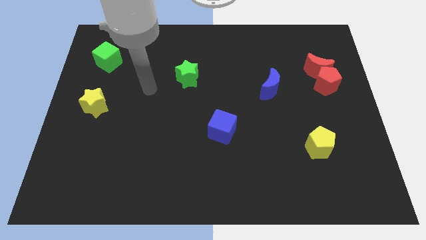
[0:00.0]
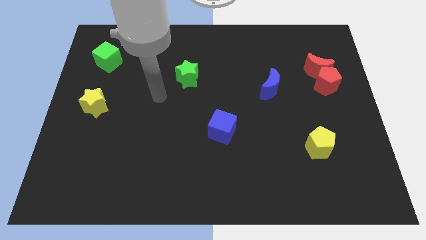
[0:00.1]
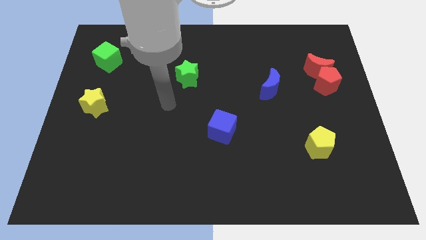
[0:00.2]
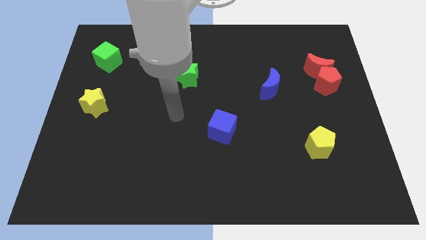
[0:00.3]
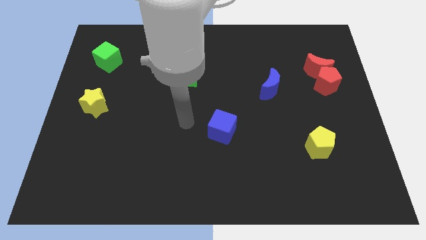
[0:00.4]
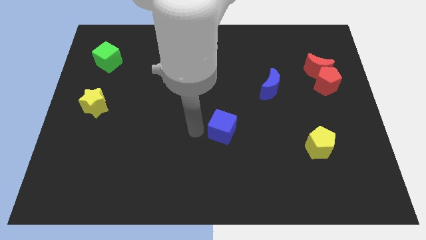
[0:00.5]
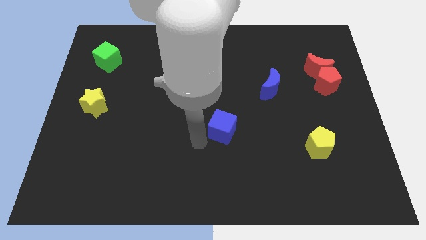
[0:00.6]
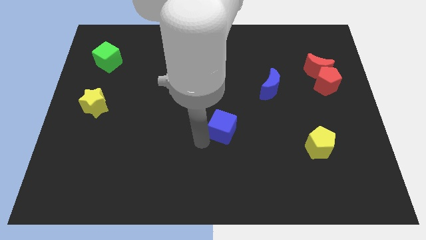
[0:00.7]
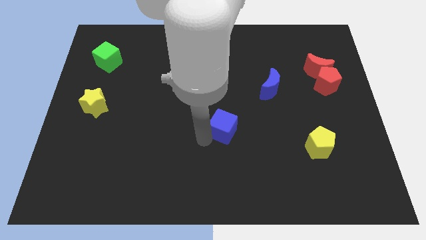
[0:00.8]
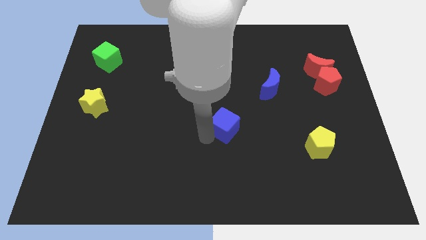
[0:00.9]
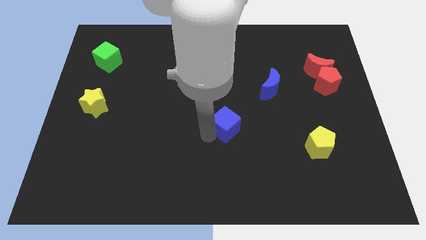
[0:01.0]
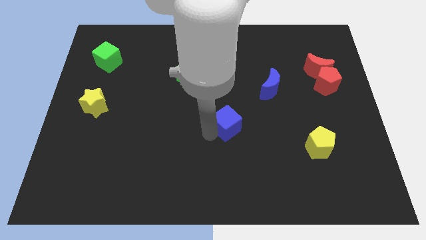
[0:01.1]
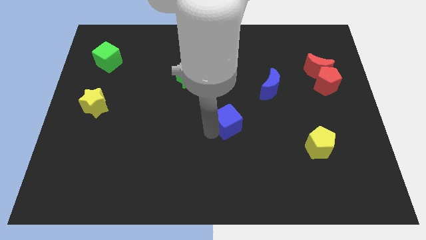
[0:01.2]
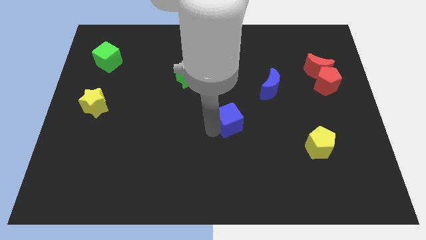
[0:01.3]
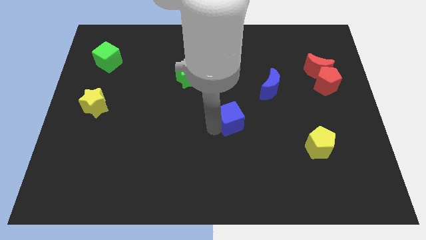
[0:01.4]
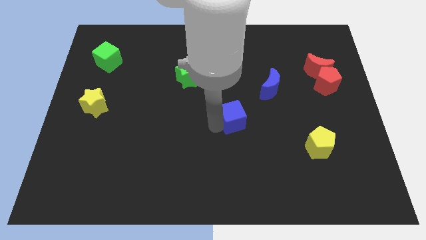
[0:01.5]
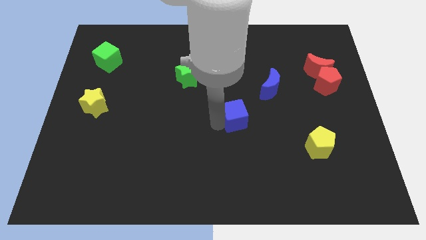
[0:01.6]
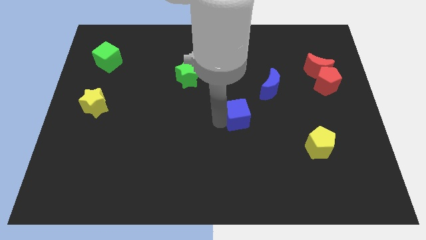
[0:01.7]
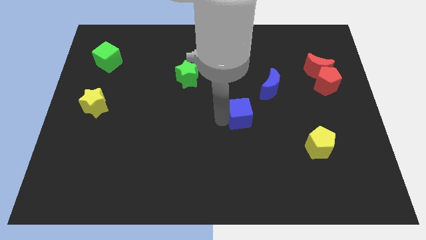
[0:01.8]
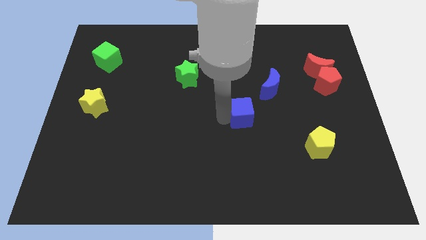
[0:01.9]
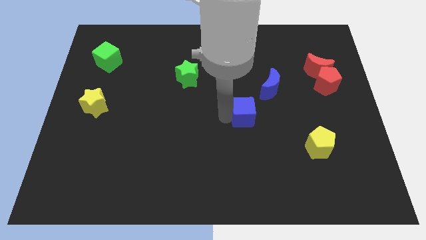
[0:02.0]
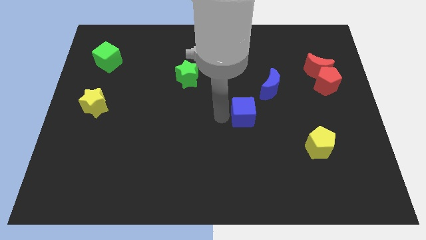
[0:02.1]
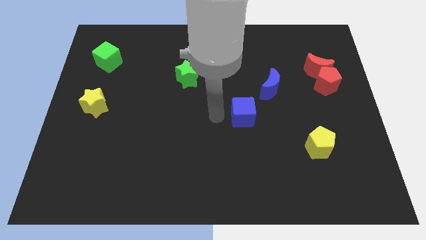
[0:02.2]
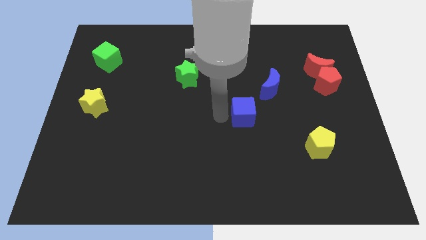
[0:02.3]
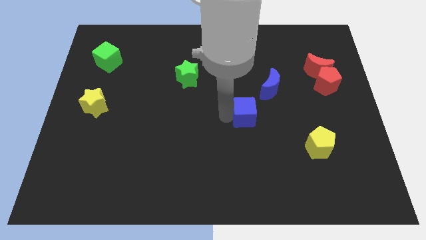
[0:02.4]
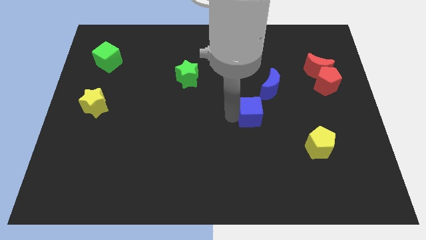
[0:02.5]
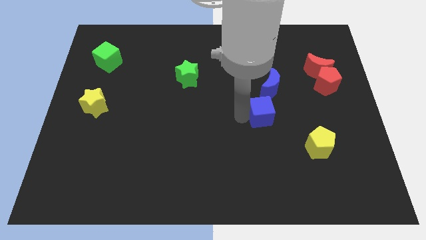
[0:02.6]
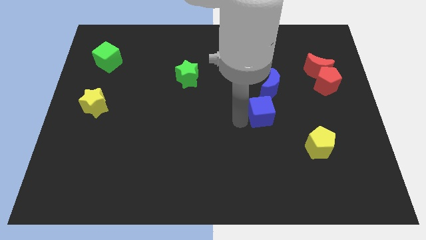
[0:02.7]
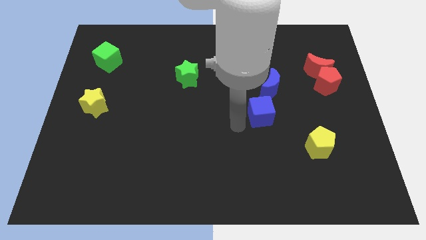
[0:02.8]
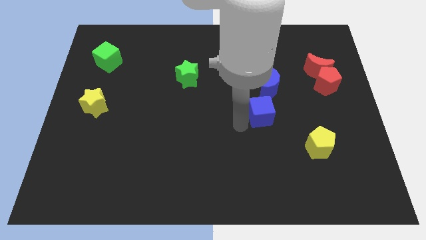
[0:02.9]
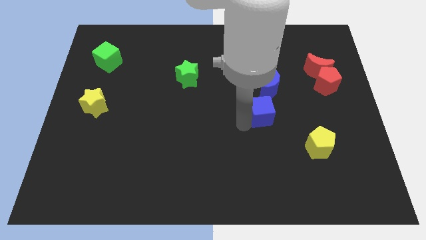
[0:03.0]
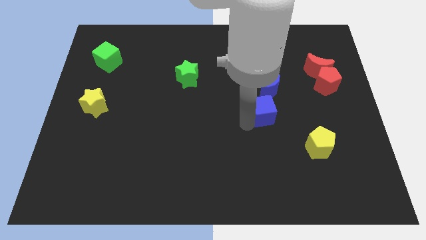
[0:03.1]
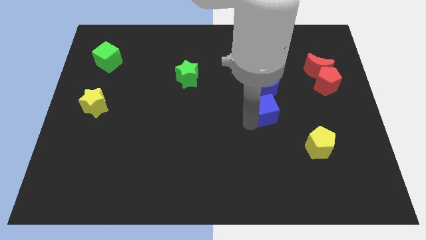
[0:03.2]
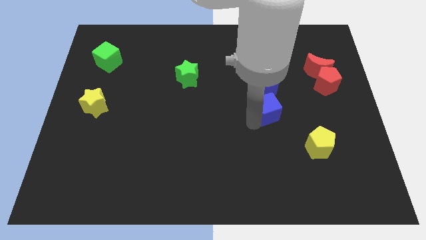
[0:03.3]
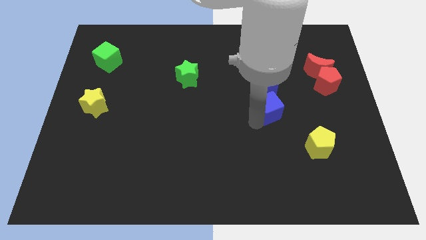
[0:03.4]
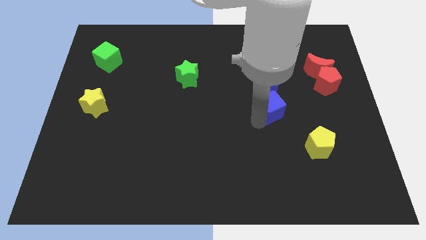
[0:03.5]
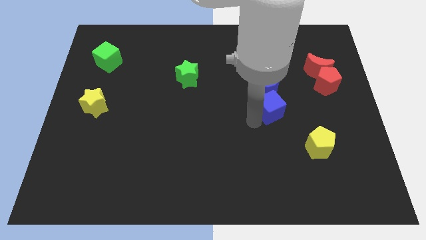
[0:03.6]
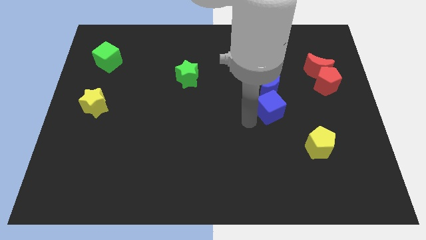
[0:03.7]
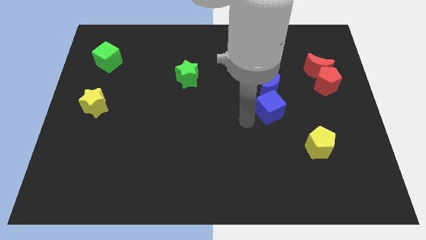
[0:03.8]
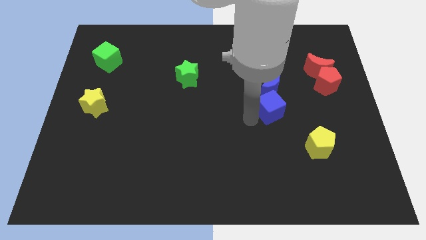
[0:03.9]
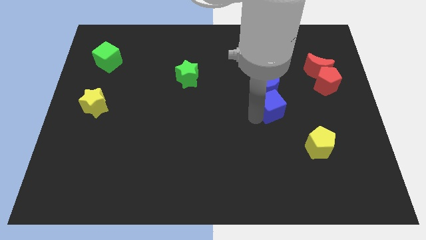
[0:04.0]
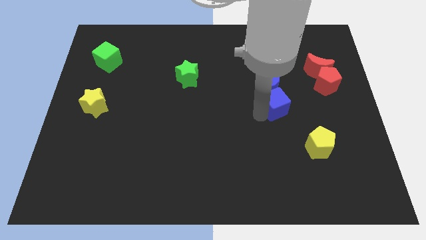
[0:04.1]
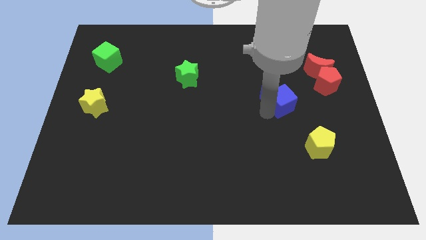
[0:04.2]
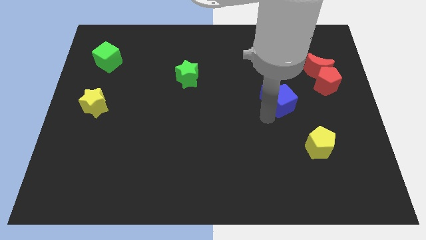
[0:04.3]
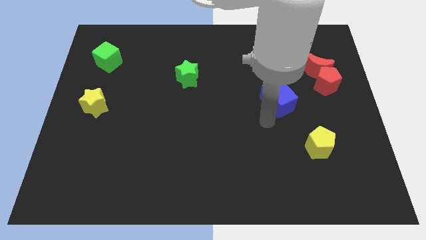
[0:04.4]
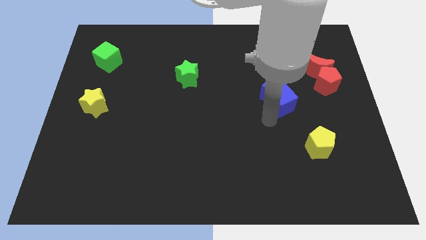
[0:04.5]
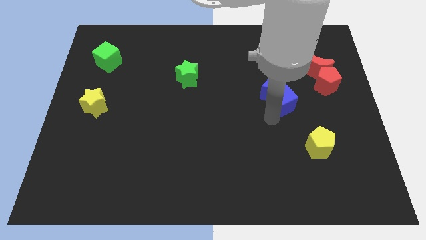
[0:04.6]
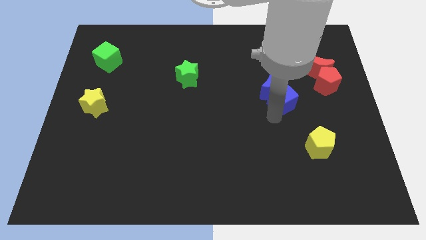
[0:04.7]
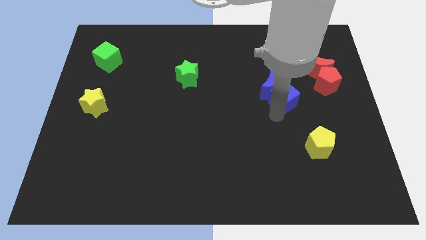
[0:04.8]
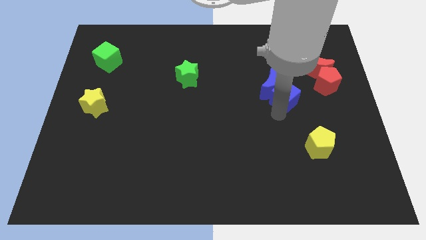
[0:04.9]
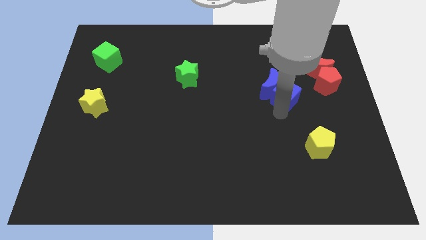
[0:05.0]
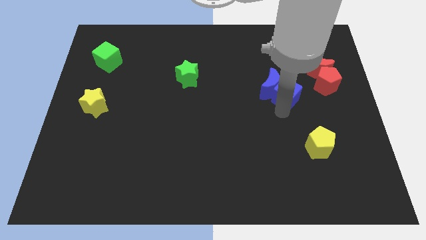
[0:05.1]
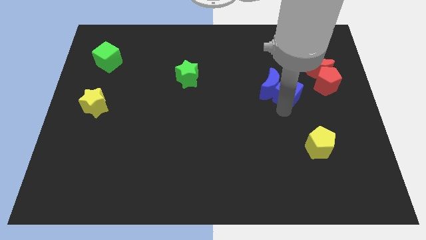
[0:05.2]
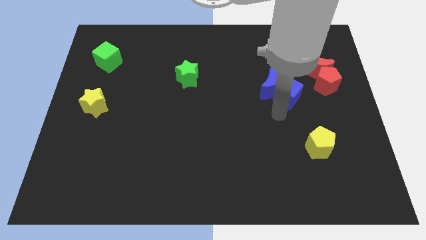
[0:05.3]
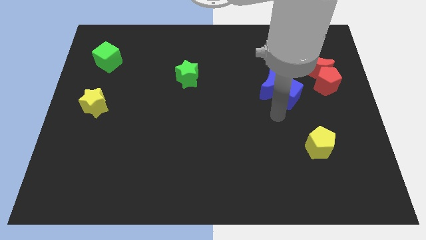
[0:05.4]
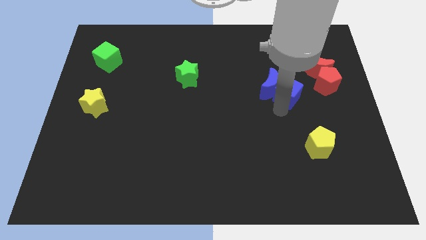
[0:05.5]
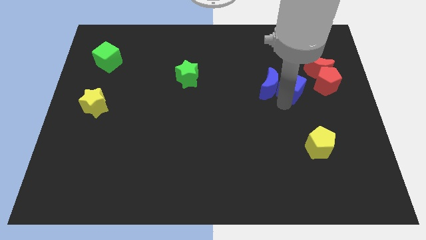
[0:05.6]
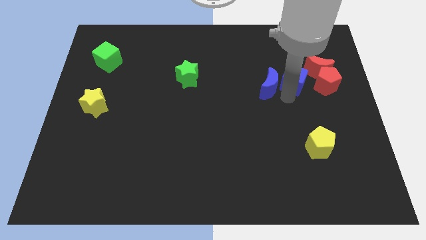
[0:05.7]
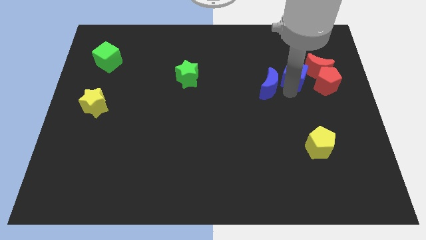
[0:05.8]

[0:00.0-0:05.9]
move the blue cube to the top left side of the red pentagon

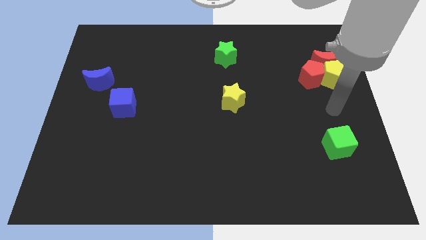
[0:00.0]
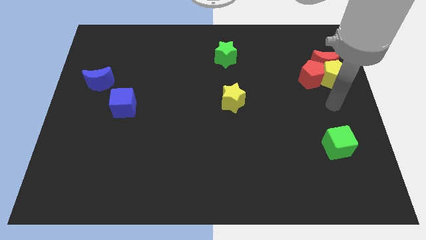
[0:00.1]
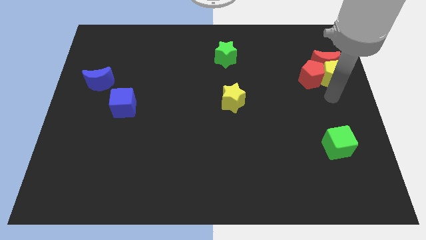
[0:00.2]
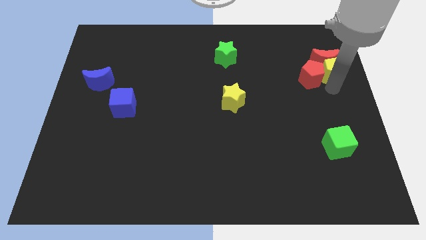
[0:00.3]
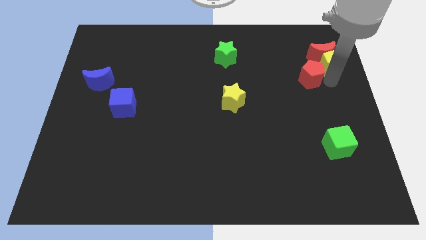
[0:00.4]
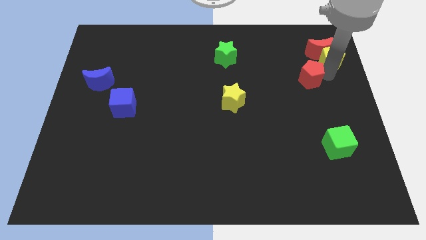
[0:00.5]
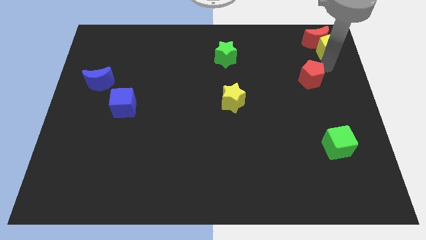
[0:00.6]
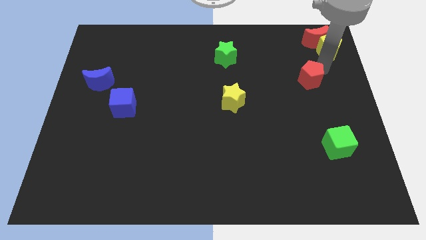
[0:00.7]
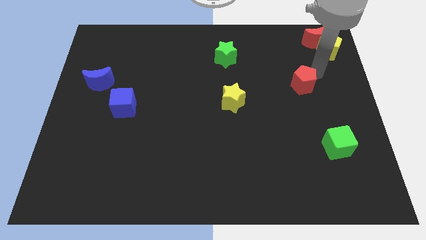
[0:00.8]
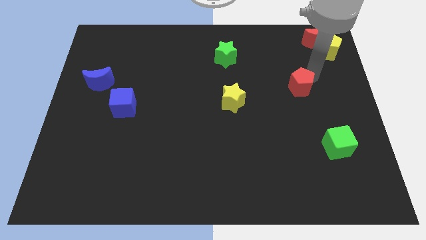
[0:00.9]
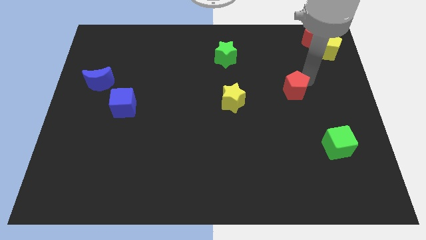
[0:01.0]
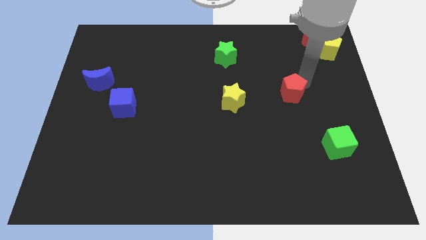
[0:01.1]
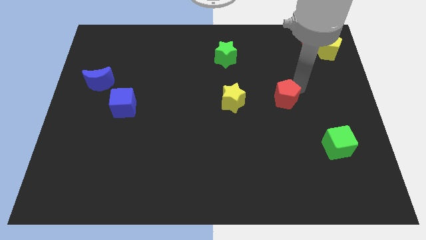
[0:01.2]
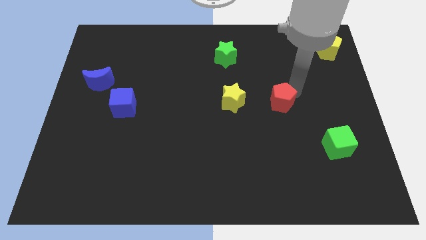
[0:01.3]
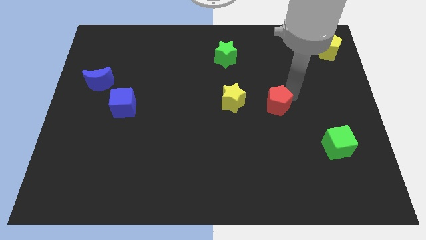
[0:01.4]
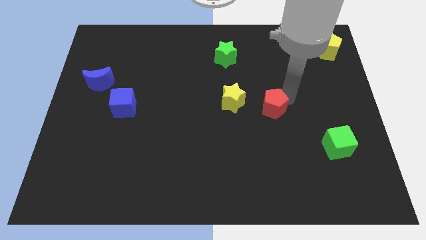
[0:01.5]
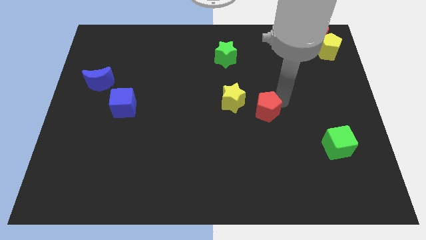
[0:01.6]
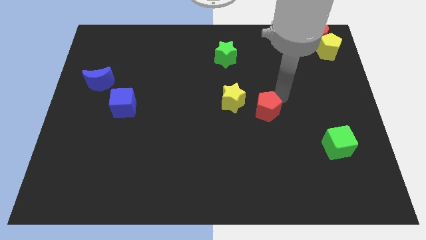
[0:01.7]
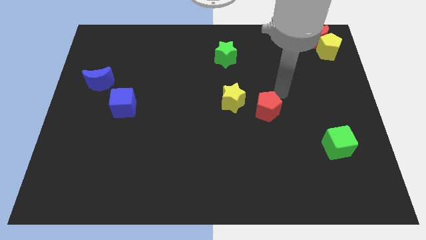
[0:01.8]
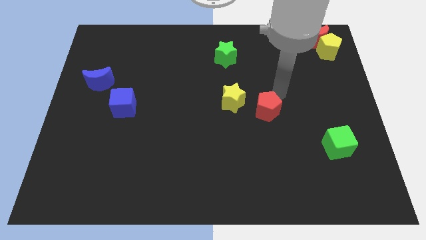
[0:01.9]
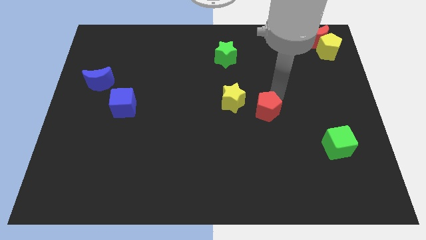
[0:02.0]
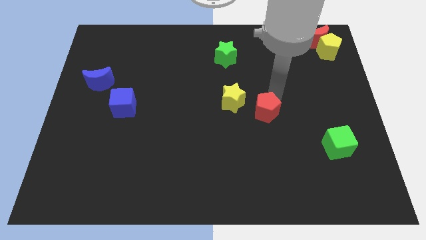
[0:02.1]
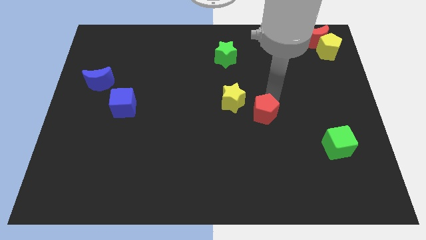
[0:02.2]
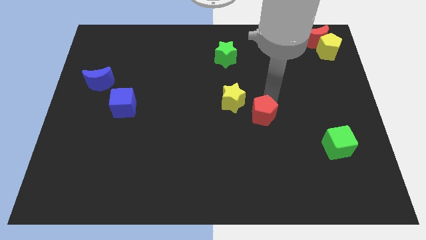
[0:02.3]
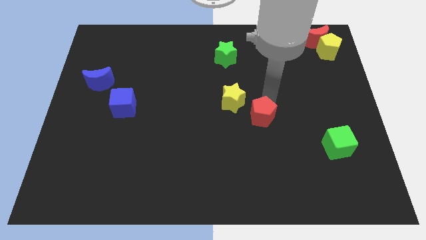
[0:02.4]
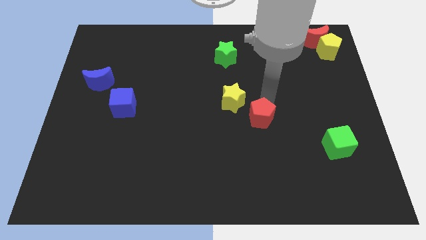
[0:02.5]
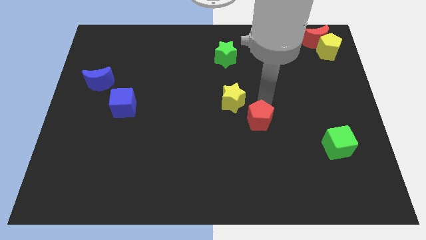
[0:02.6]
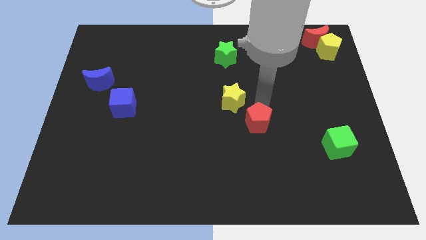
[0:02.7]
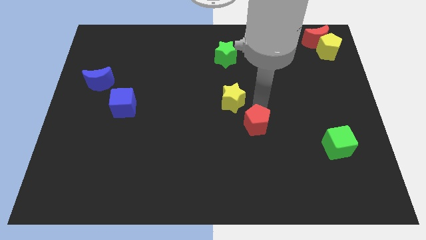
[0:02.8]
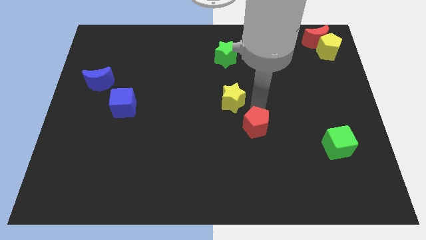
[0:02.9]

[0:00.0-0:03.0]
push the red pentagon below the yellow star
